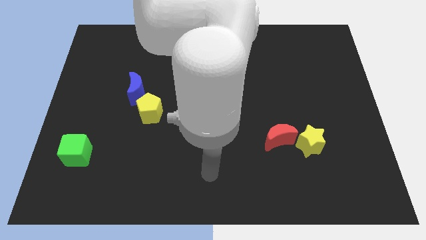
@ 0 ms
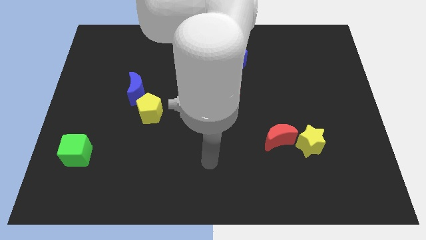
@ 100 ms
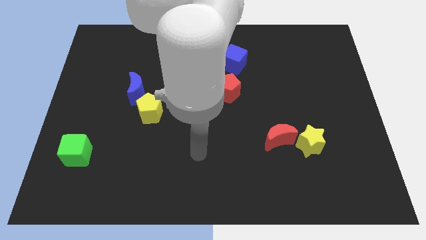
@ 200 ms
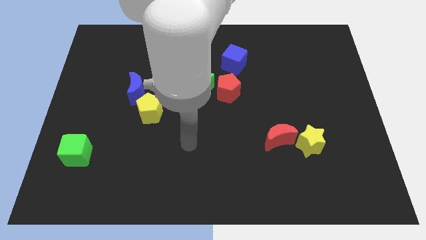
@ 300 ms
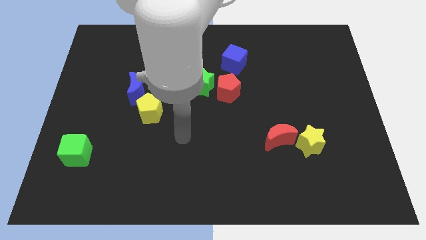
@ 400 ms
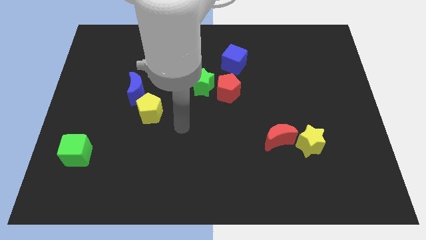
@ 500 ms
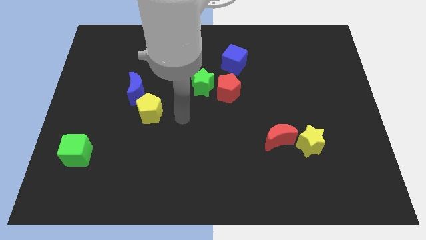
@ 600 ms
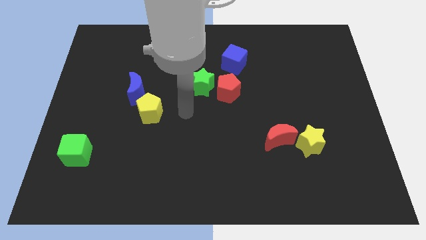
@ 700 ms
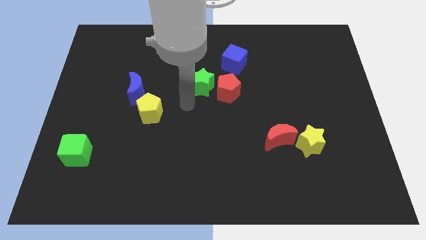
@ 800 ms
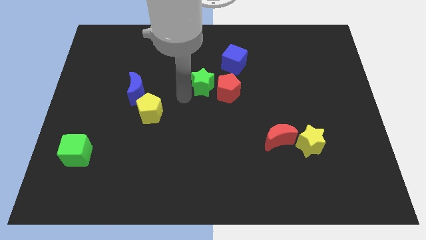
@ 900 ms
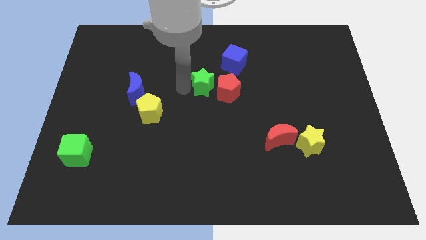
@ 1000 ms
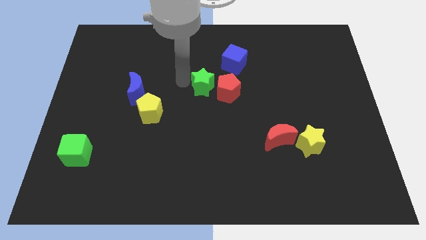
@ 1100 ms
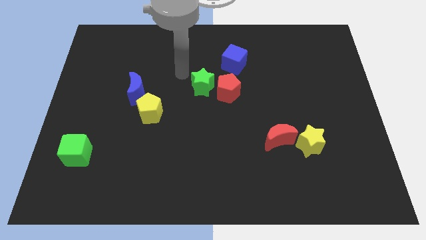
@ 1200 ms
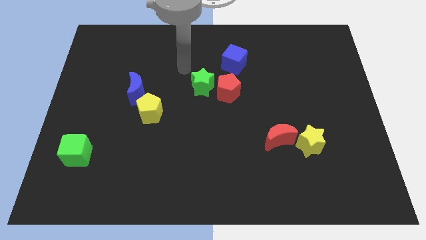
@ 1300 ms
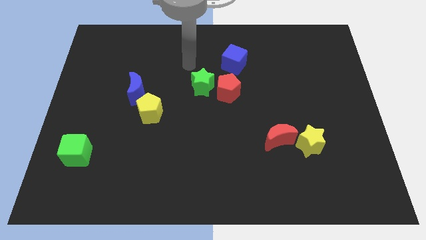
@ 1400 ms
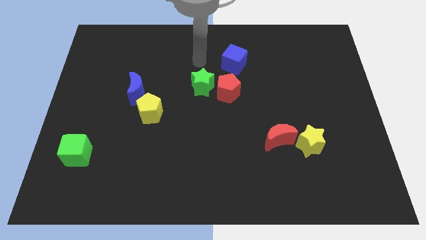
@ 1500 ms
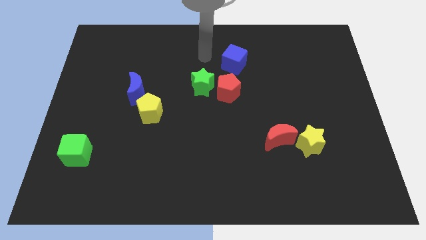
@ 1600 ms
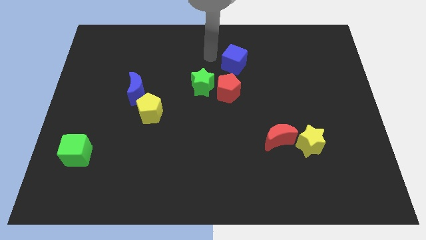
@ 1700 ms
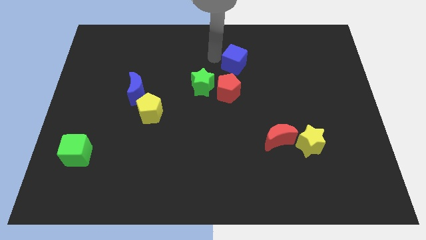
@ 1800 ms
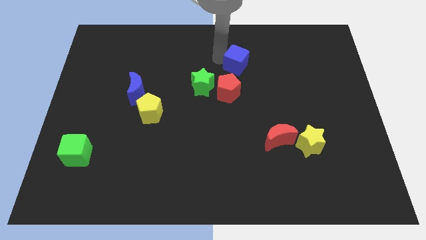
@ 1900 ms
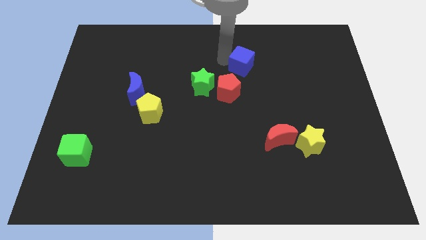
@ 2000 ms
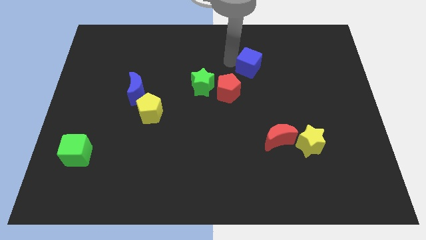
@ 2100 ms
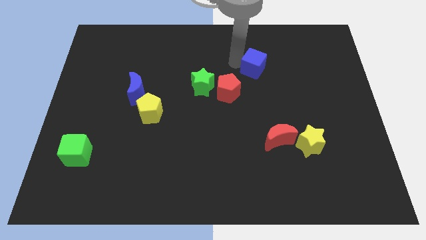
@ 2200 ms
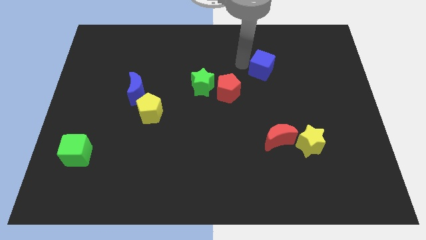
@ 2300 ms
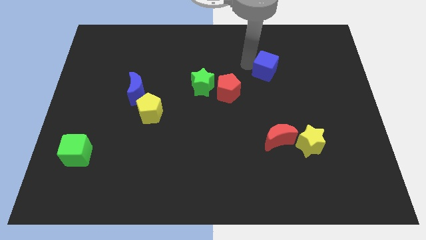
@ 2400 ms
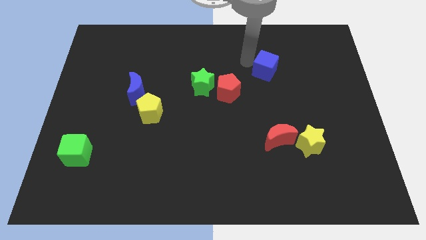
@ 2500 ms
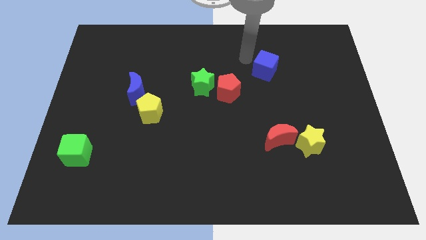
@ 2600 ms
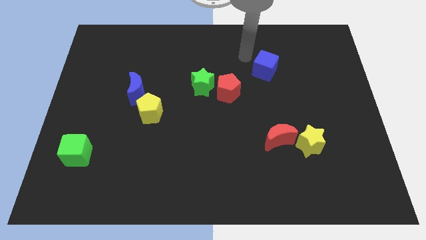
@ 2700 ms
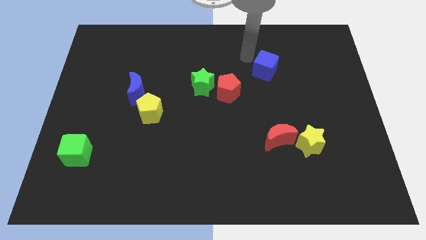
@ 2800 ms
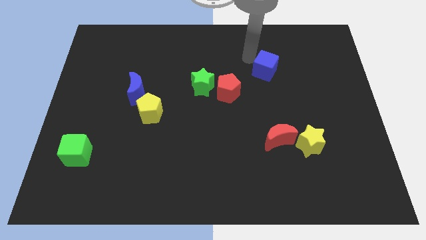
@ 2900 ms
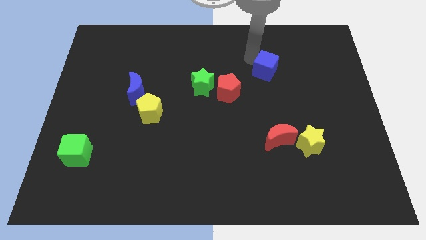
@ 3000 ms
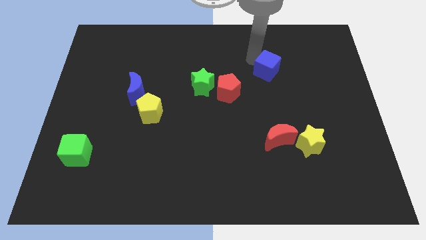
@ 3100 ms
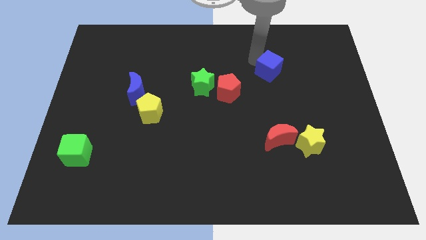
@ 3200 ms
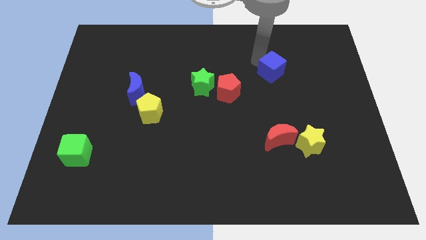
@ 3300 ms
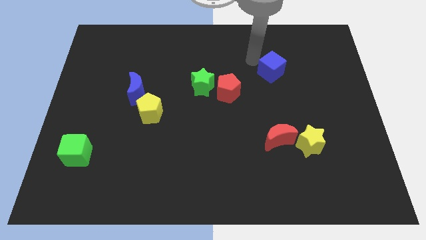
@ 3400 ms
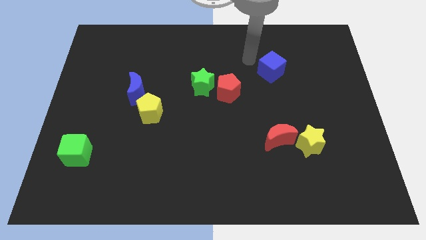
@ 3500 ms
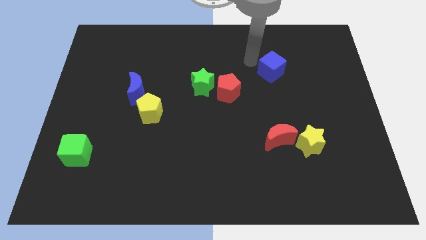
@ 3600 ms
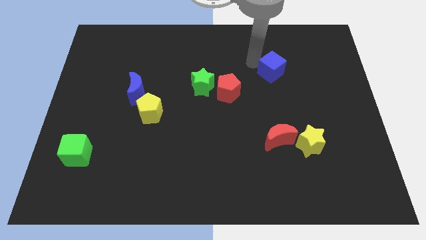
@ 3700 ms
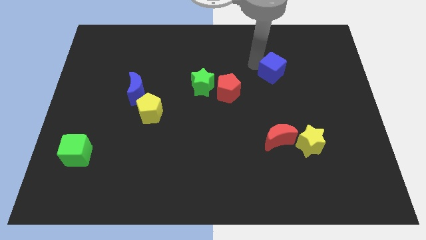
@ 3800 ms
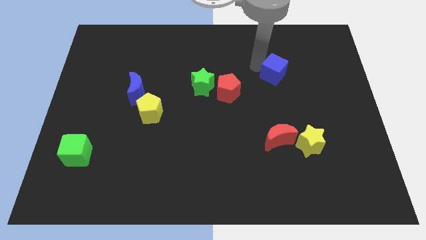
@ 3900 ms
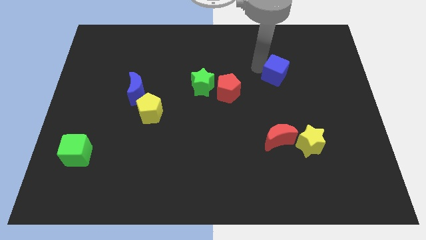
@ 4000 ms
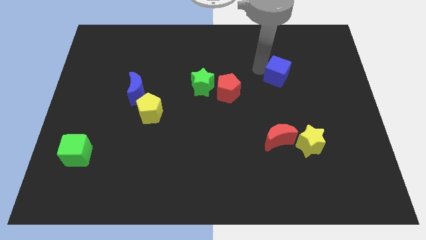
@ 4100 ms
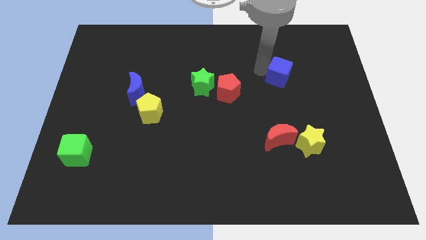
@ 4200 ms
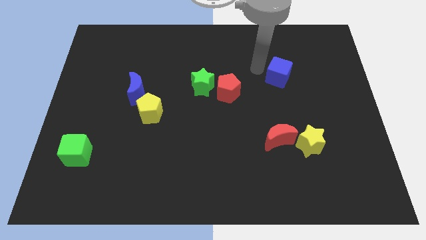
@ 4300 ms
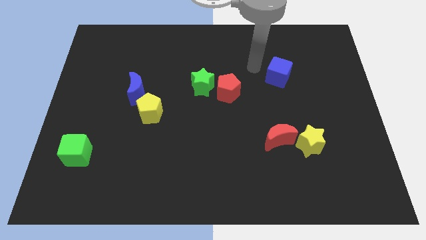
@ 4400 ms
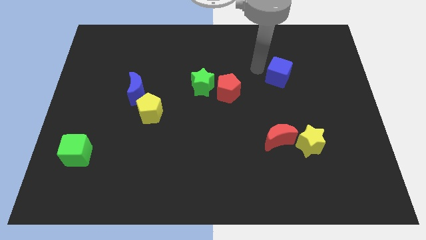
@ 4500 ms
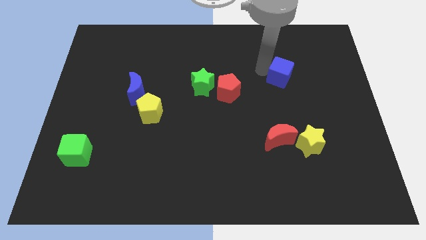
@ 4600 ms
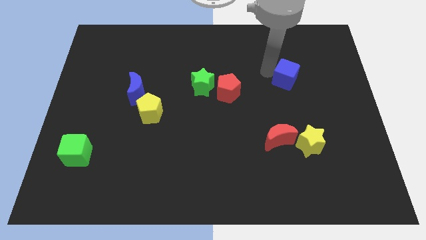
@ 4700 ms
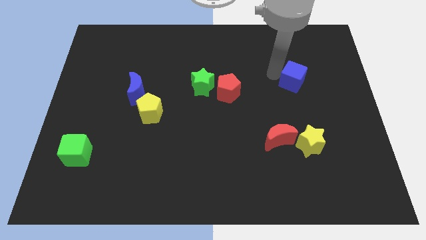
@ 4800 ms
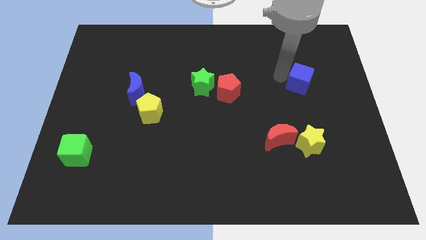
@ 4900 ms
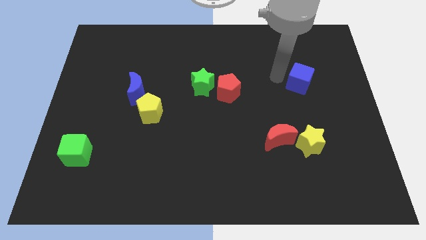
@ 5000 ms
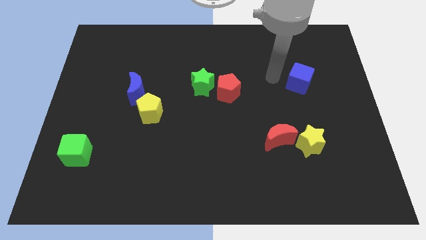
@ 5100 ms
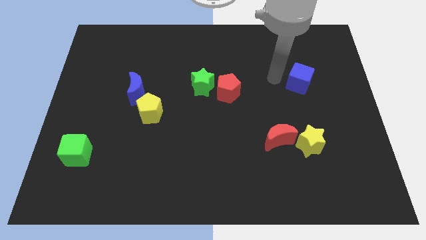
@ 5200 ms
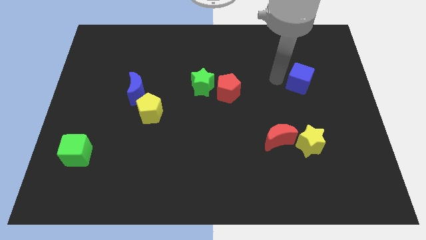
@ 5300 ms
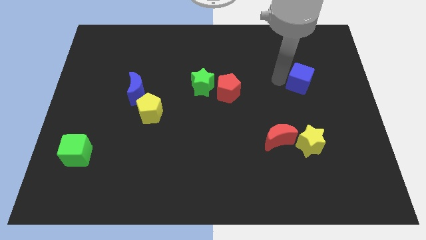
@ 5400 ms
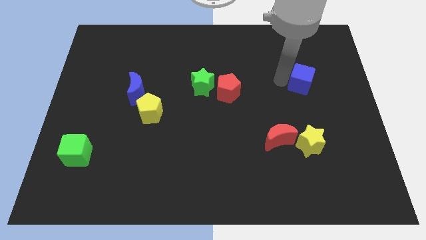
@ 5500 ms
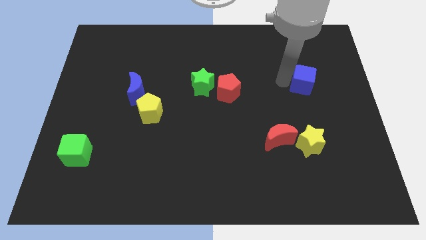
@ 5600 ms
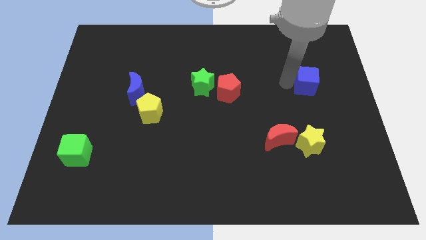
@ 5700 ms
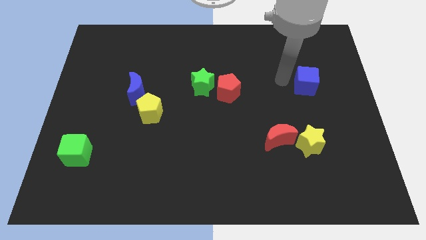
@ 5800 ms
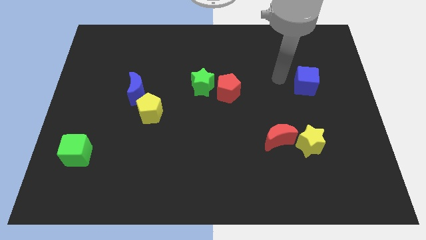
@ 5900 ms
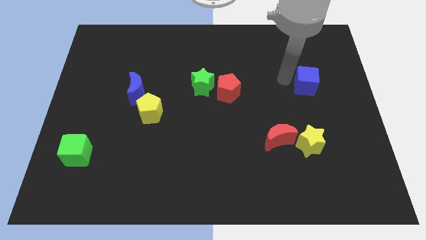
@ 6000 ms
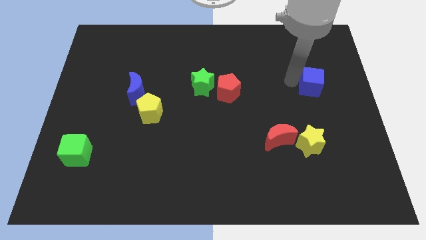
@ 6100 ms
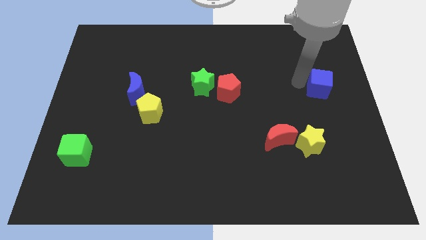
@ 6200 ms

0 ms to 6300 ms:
slide the blue cube to the right side of the board
